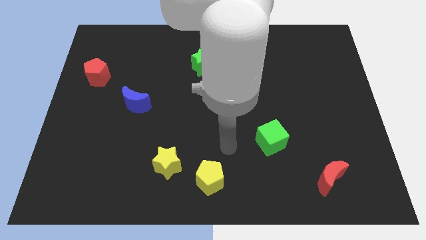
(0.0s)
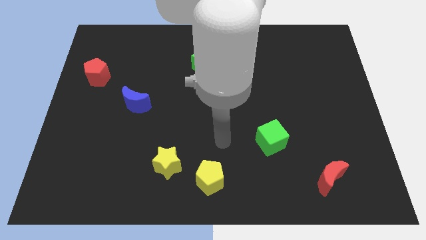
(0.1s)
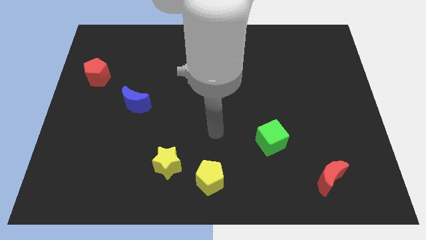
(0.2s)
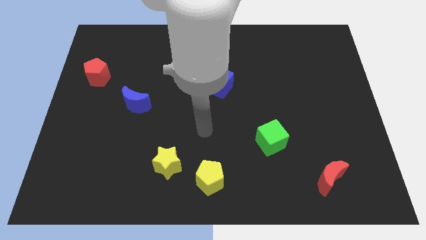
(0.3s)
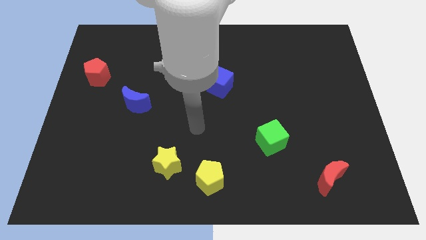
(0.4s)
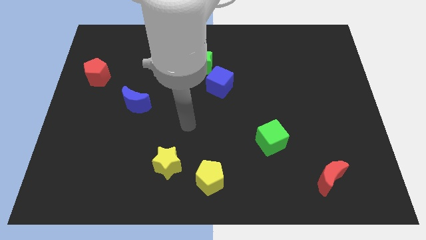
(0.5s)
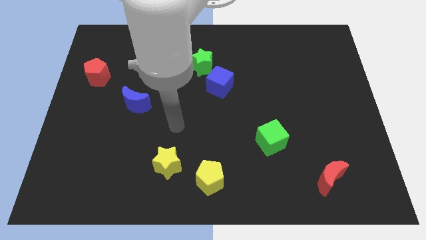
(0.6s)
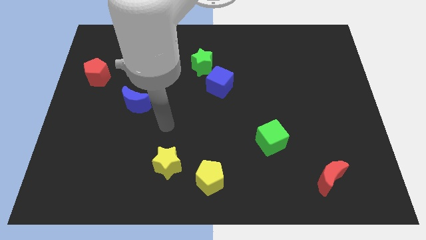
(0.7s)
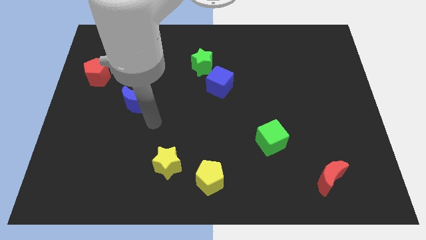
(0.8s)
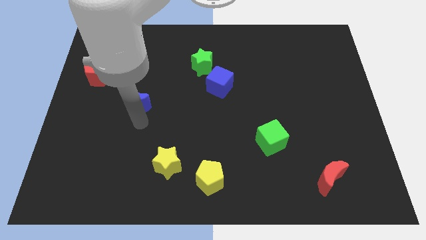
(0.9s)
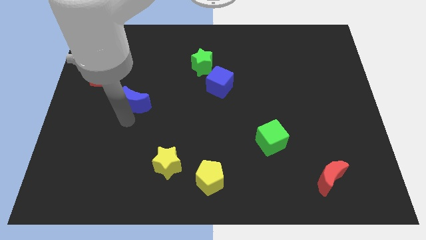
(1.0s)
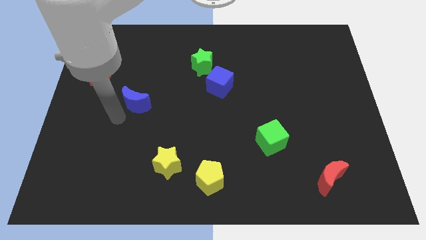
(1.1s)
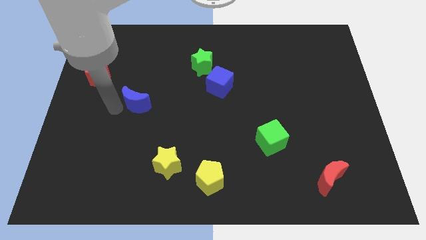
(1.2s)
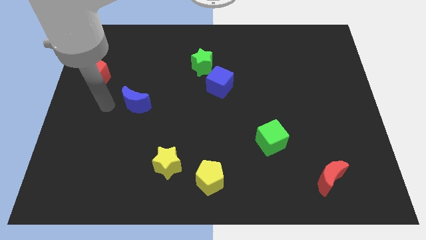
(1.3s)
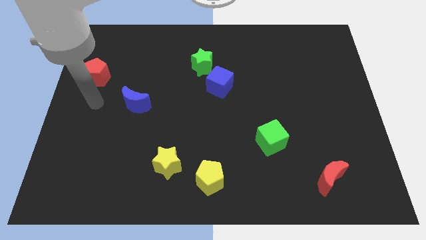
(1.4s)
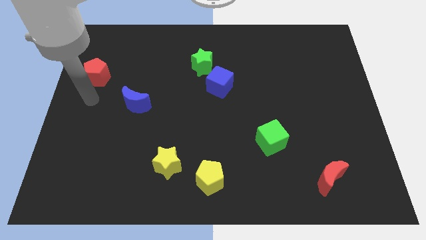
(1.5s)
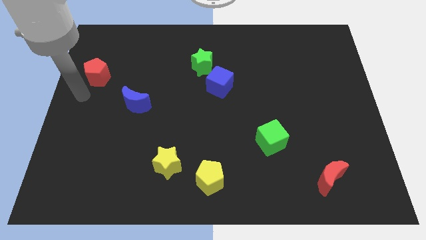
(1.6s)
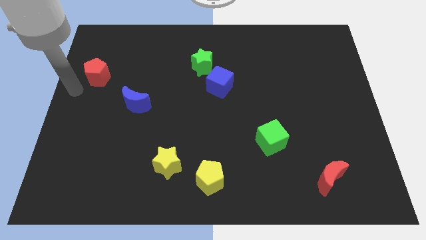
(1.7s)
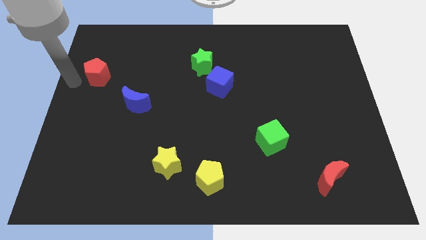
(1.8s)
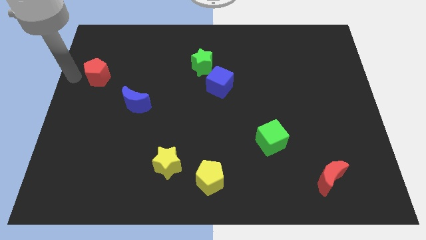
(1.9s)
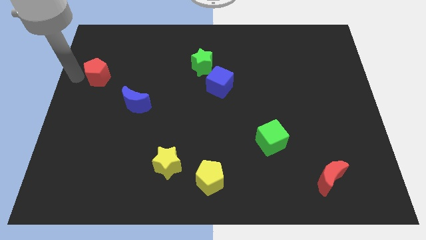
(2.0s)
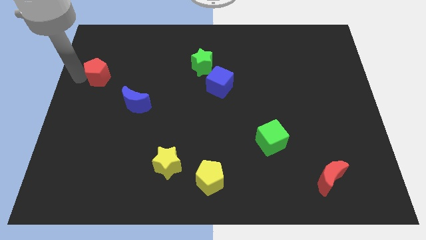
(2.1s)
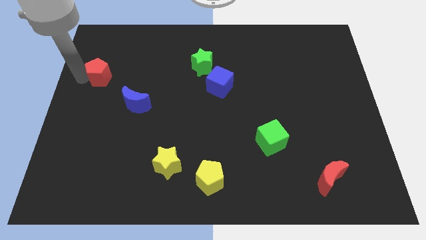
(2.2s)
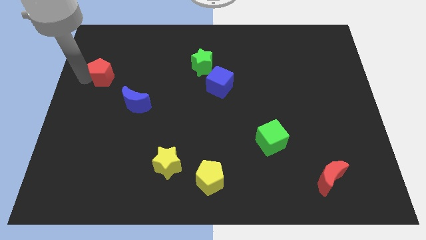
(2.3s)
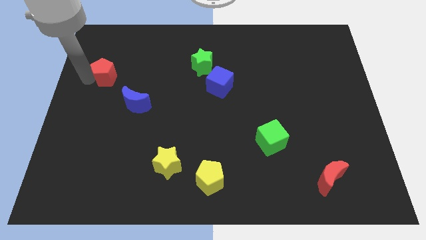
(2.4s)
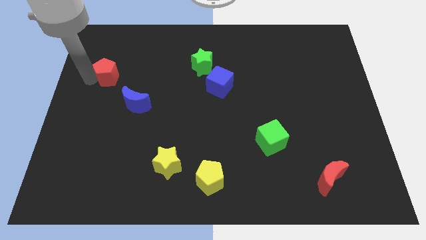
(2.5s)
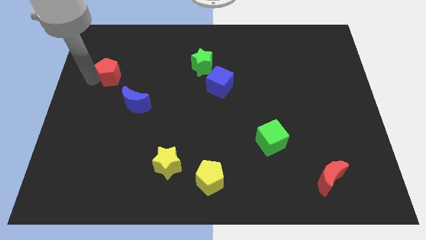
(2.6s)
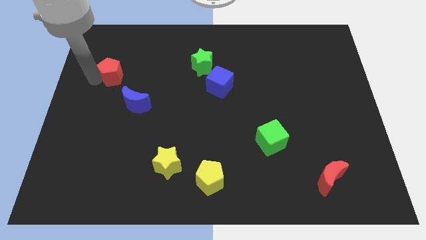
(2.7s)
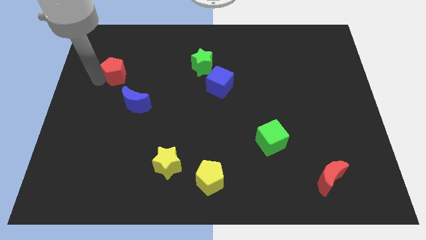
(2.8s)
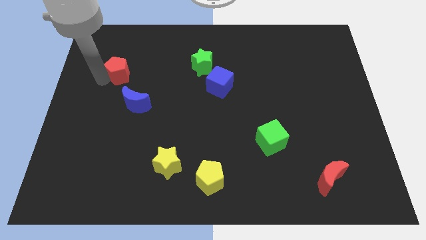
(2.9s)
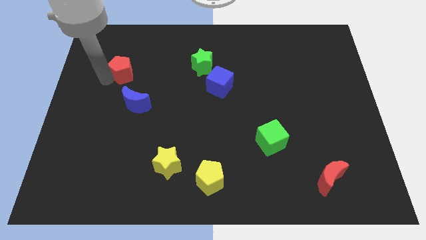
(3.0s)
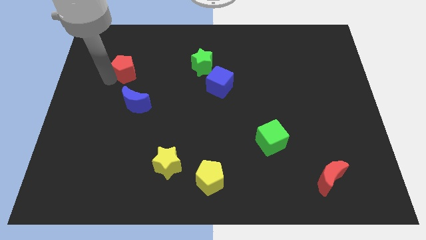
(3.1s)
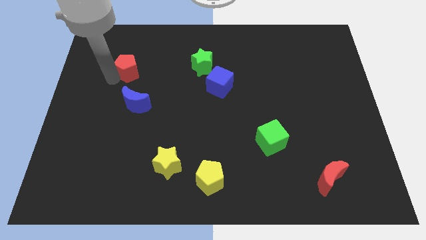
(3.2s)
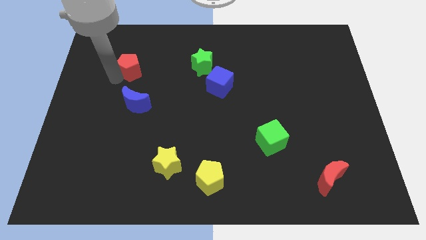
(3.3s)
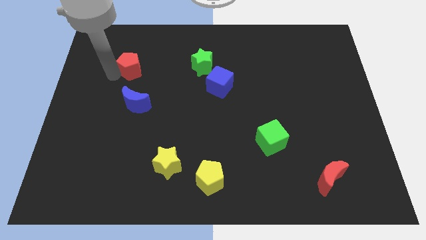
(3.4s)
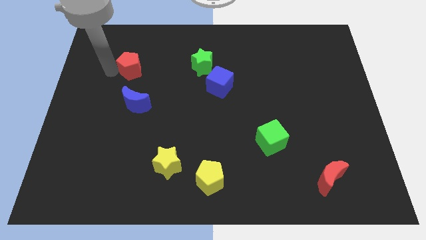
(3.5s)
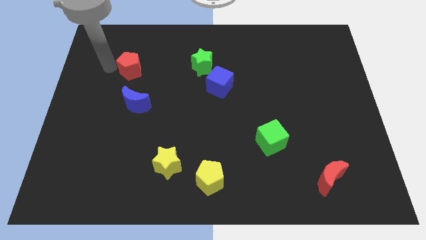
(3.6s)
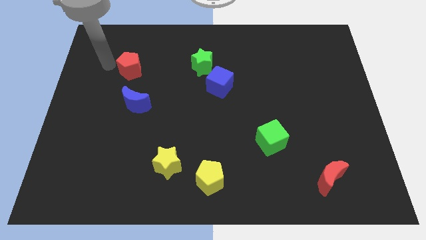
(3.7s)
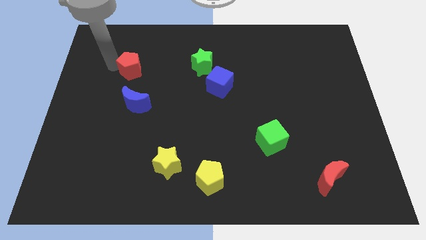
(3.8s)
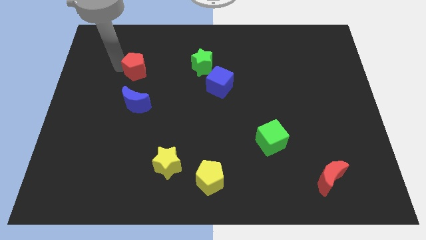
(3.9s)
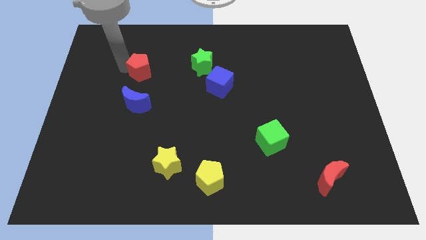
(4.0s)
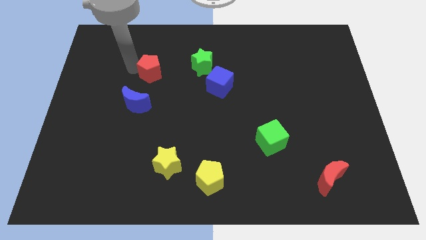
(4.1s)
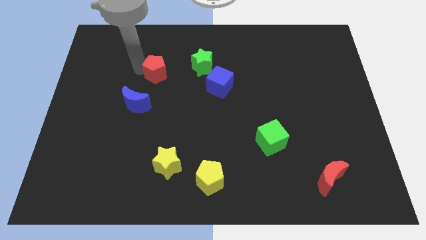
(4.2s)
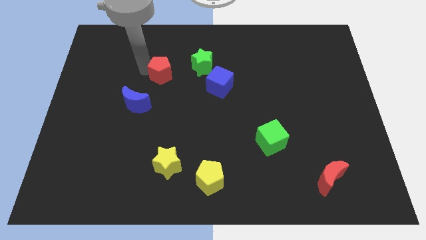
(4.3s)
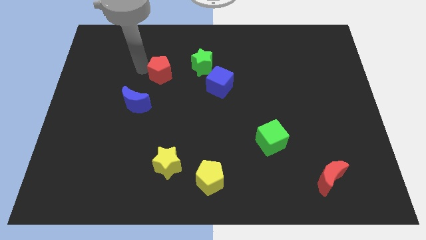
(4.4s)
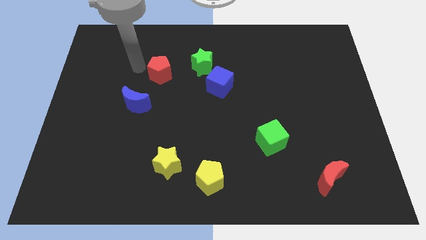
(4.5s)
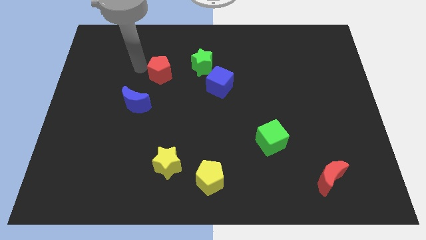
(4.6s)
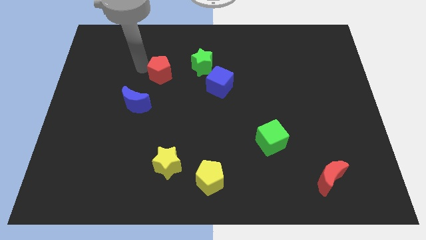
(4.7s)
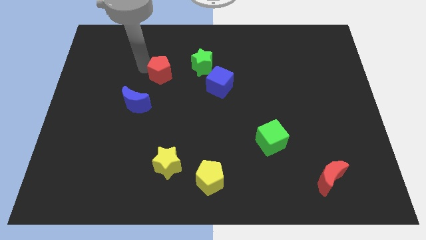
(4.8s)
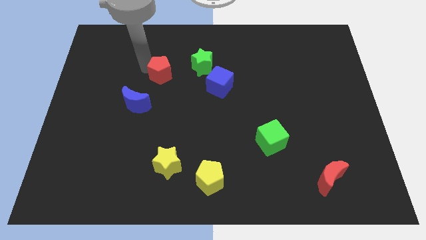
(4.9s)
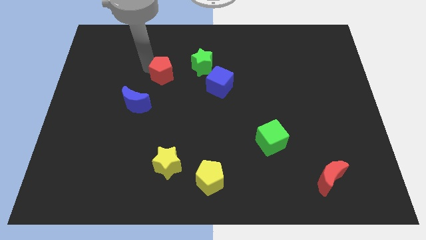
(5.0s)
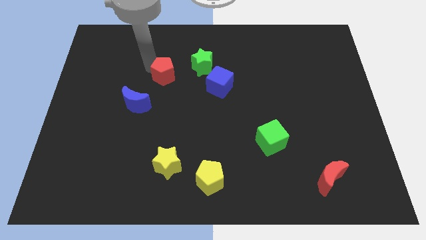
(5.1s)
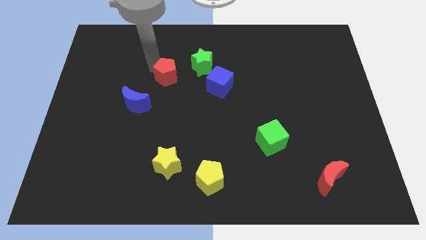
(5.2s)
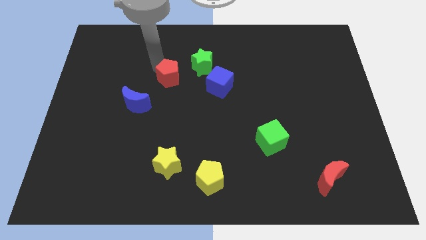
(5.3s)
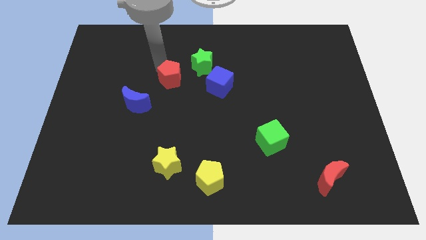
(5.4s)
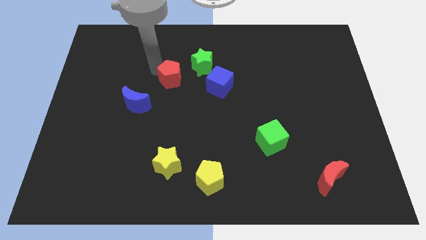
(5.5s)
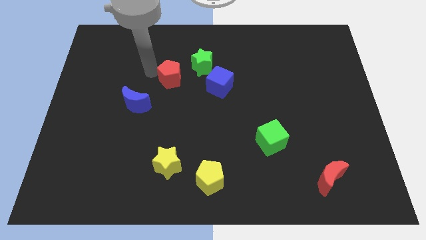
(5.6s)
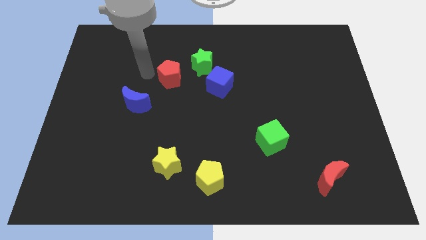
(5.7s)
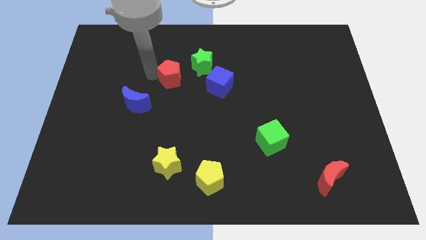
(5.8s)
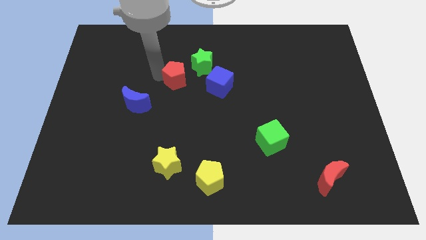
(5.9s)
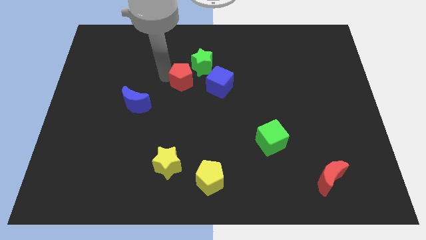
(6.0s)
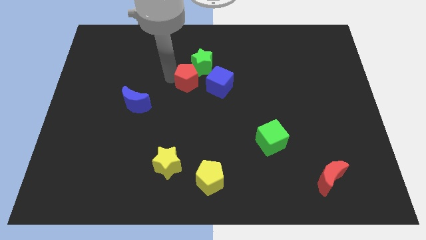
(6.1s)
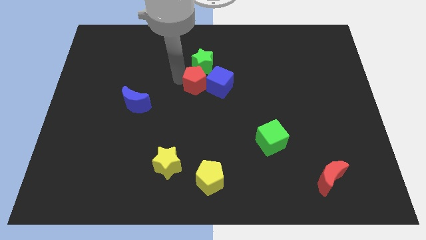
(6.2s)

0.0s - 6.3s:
push the red pentagon next to the blue cube
